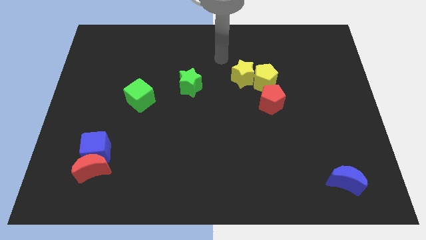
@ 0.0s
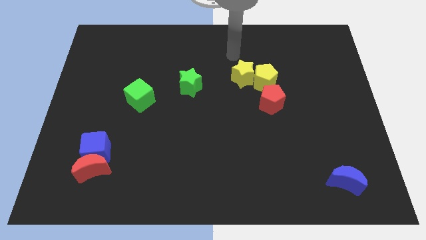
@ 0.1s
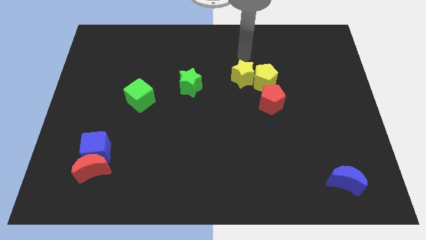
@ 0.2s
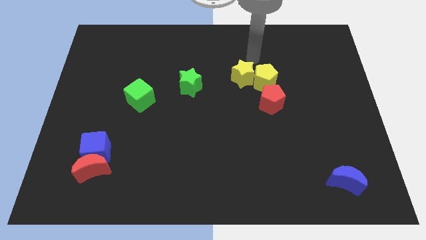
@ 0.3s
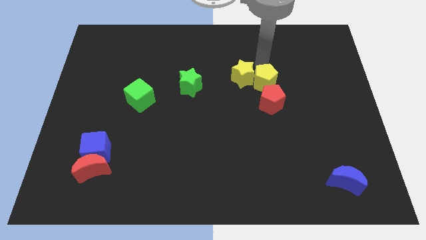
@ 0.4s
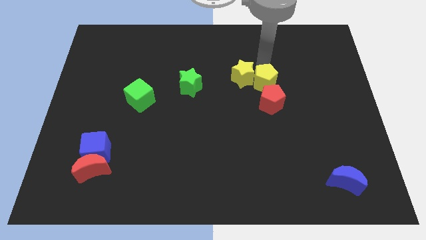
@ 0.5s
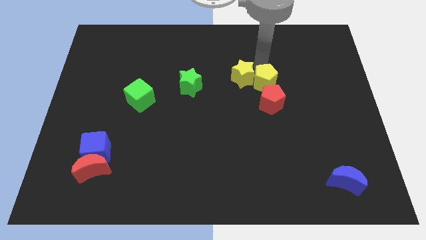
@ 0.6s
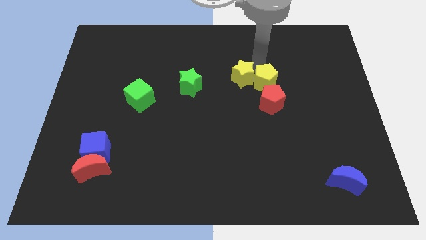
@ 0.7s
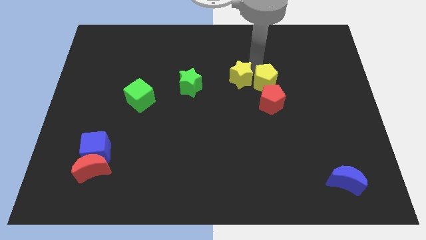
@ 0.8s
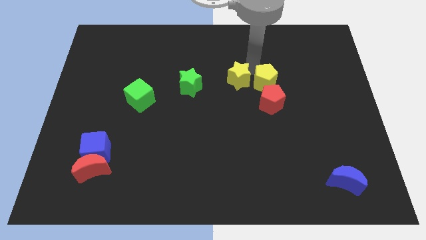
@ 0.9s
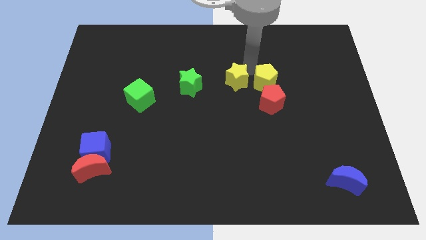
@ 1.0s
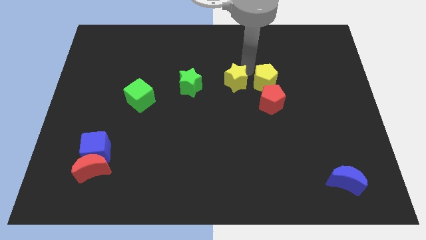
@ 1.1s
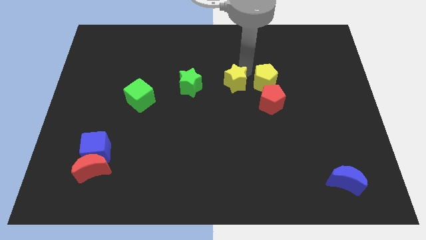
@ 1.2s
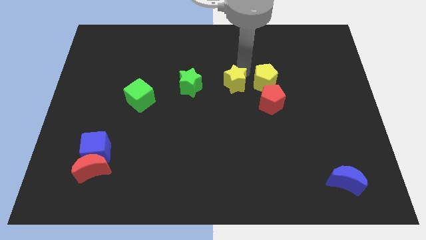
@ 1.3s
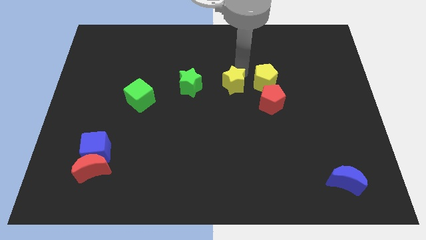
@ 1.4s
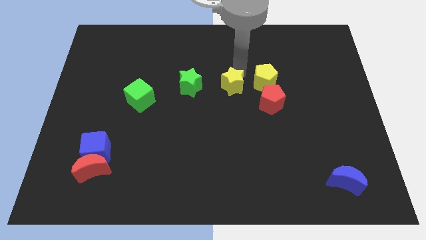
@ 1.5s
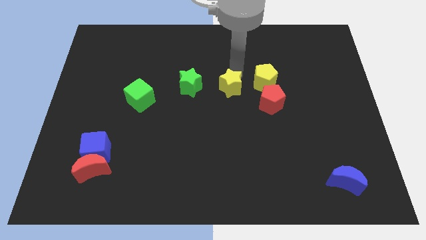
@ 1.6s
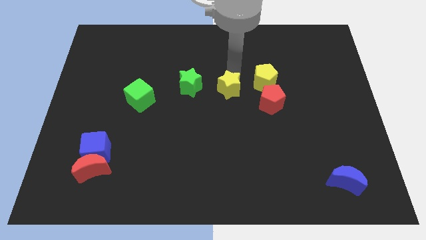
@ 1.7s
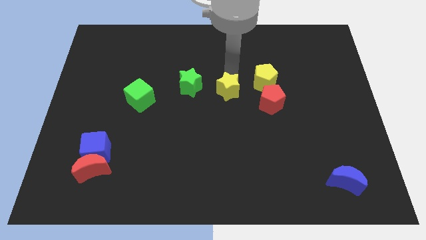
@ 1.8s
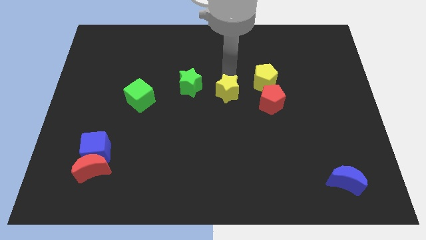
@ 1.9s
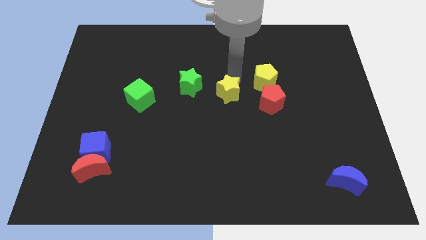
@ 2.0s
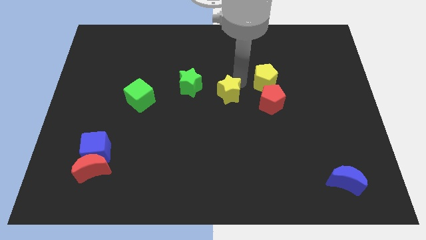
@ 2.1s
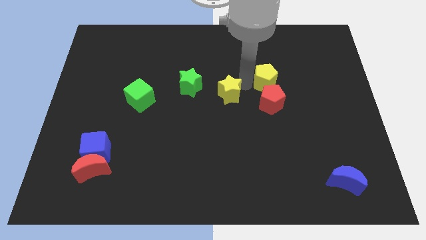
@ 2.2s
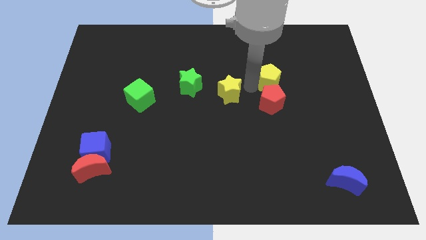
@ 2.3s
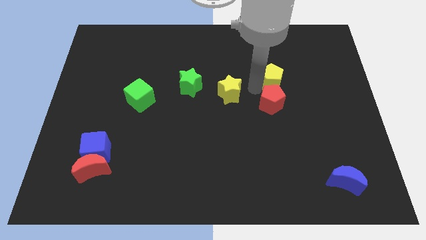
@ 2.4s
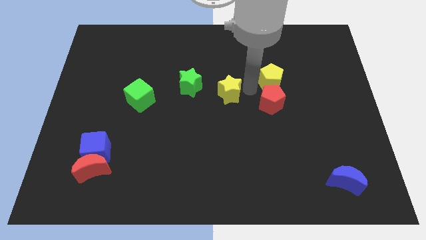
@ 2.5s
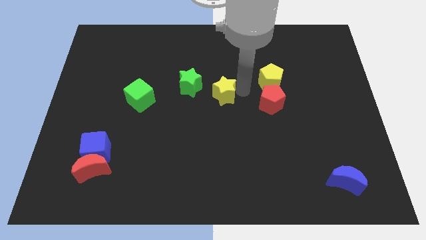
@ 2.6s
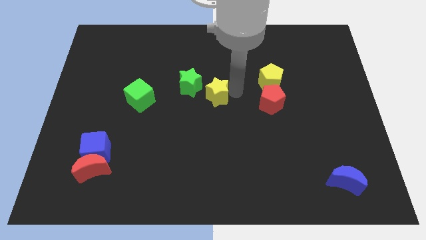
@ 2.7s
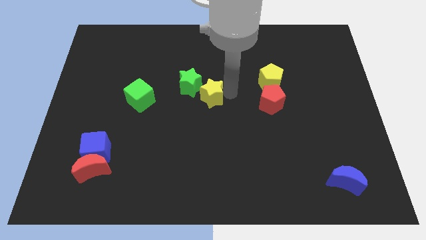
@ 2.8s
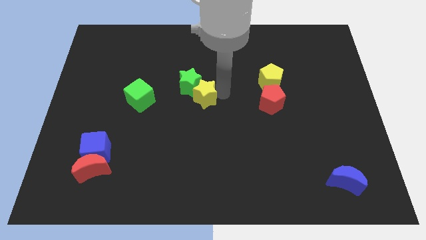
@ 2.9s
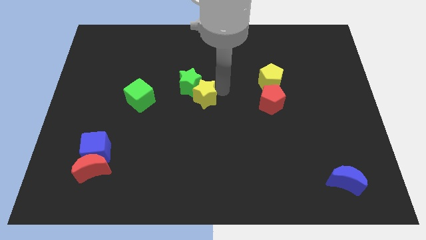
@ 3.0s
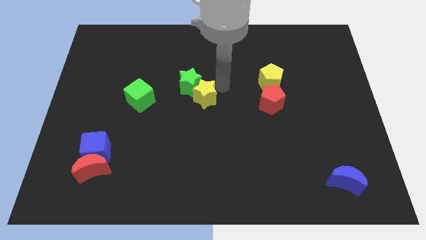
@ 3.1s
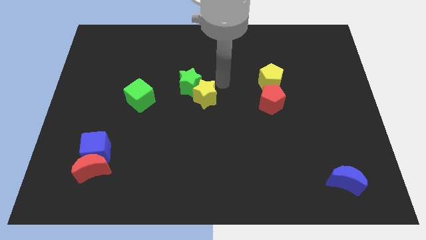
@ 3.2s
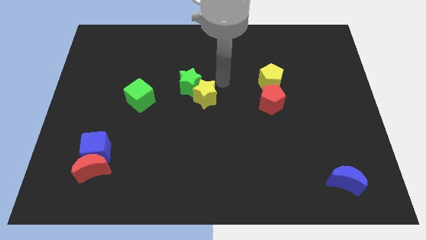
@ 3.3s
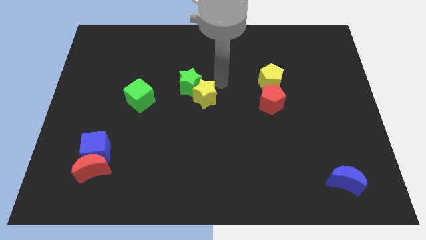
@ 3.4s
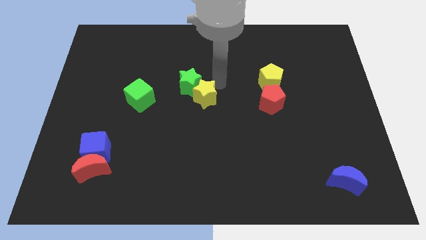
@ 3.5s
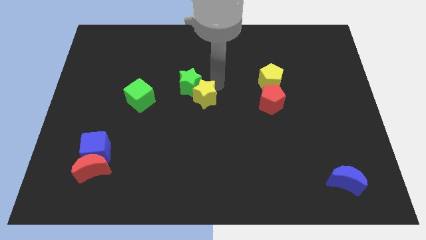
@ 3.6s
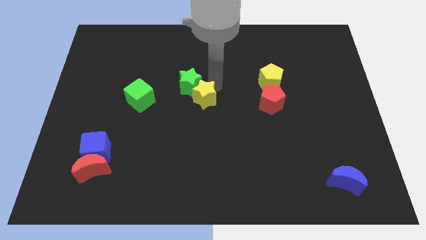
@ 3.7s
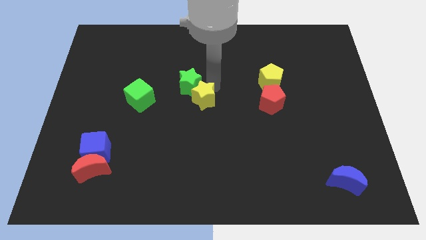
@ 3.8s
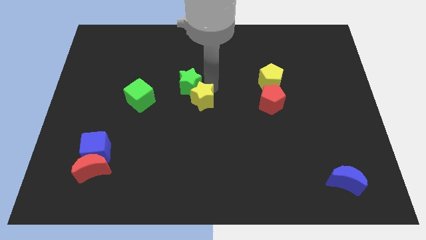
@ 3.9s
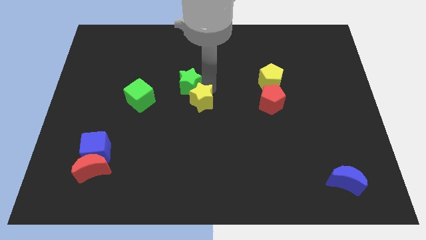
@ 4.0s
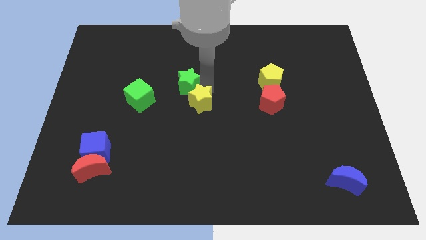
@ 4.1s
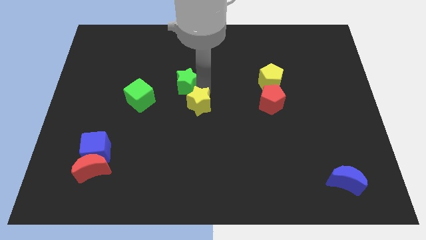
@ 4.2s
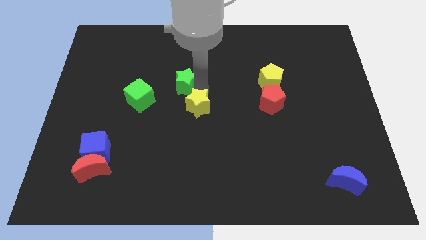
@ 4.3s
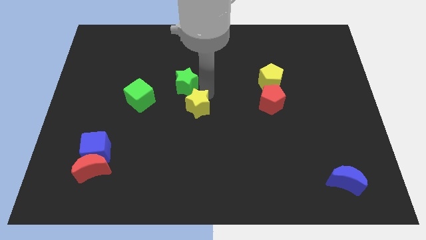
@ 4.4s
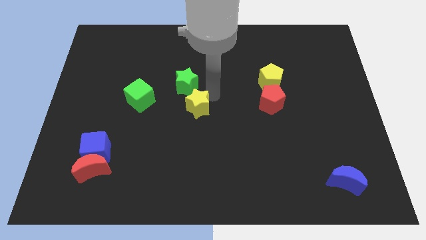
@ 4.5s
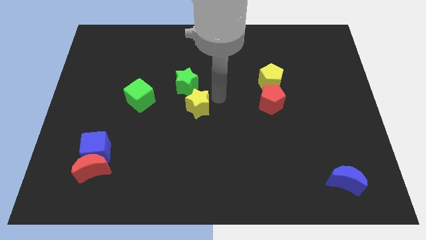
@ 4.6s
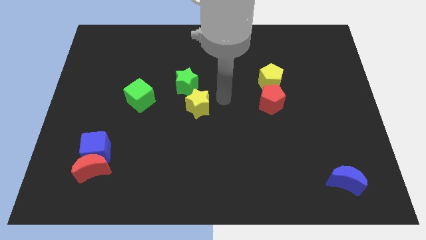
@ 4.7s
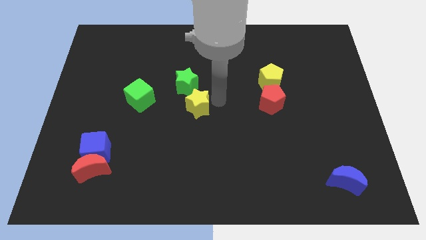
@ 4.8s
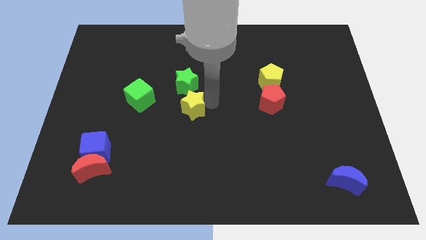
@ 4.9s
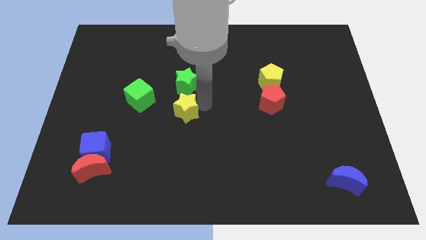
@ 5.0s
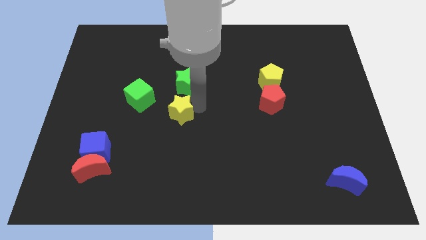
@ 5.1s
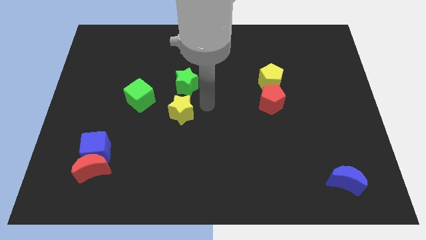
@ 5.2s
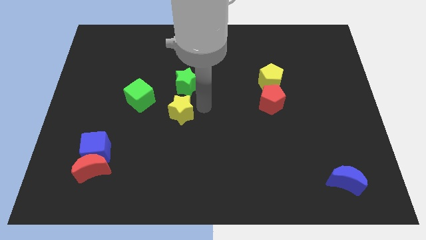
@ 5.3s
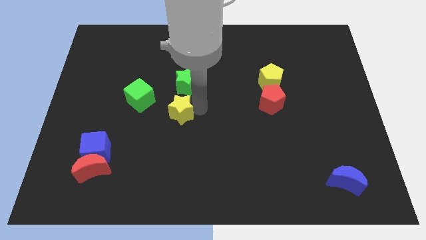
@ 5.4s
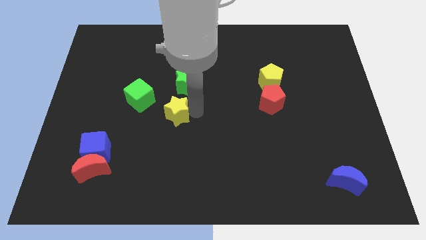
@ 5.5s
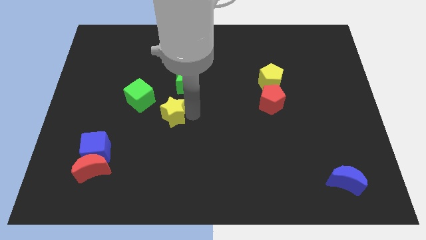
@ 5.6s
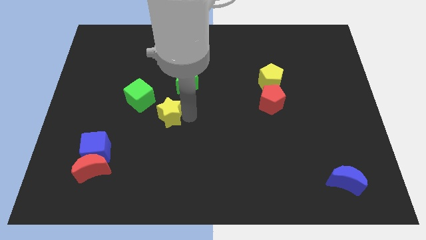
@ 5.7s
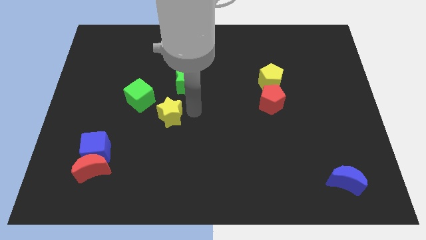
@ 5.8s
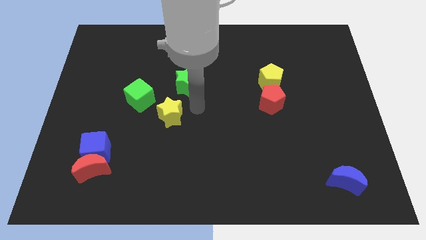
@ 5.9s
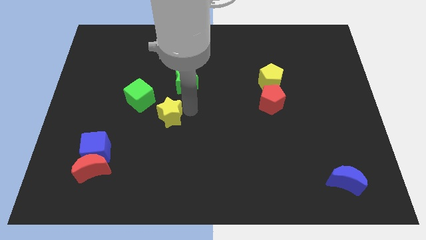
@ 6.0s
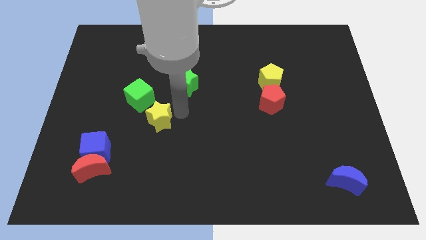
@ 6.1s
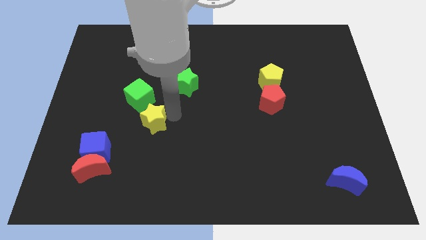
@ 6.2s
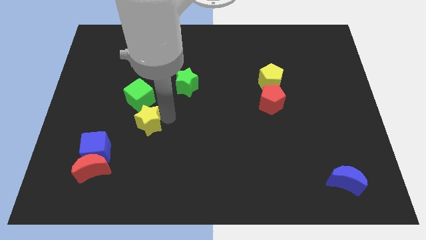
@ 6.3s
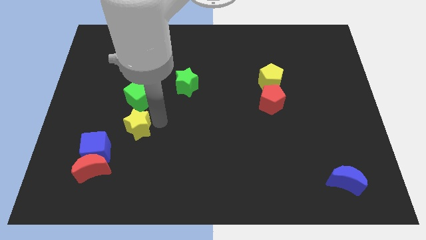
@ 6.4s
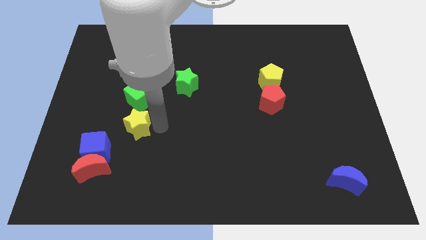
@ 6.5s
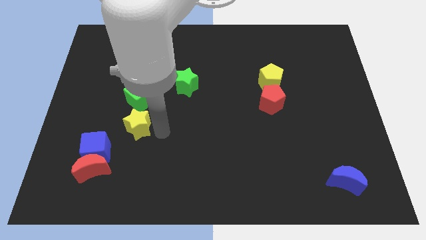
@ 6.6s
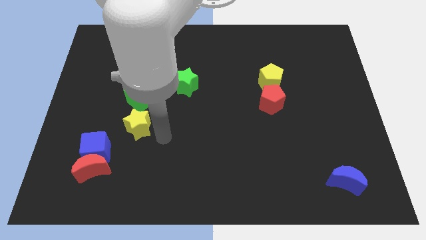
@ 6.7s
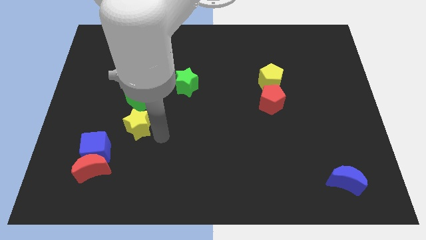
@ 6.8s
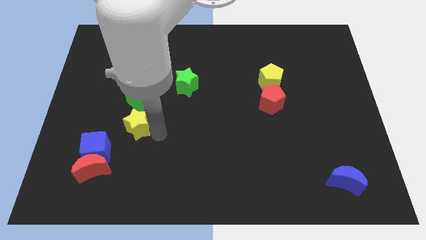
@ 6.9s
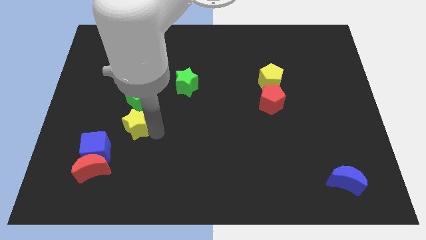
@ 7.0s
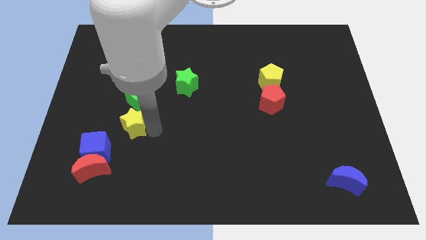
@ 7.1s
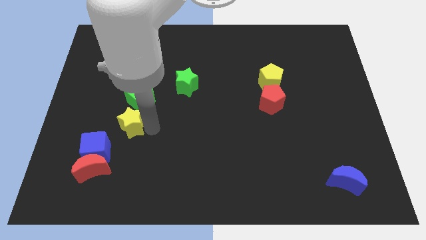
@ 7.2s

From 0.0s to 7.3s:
push the yellow star diagonally down and to the left of the green cube

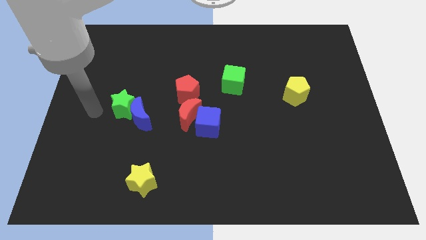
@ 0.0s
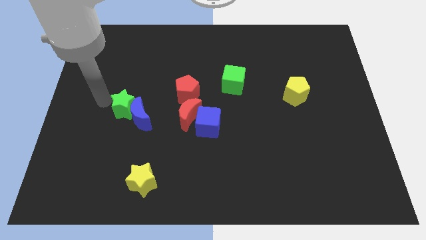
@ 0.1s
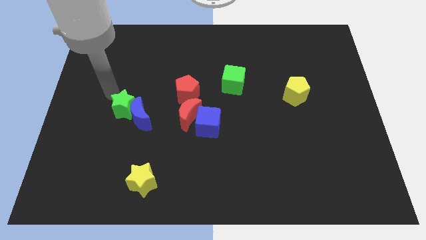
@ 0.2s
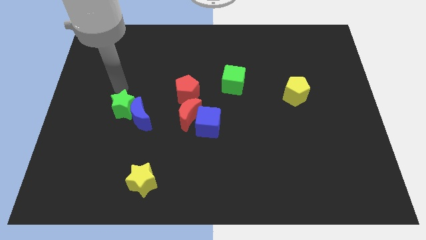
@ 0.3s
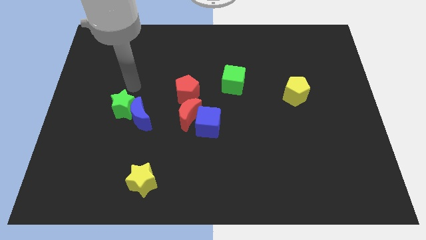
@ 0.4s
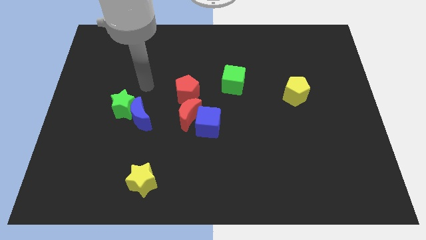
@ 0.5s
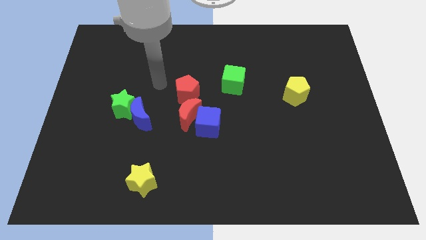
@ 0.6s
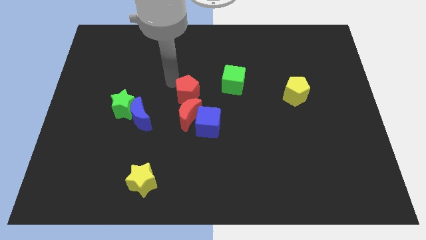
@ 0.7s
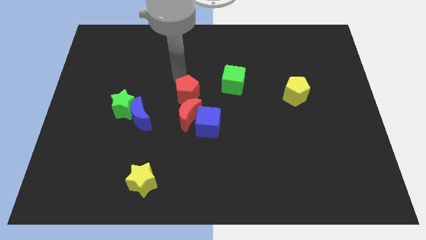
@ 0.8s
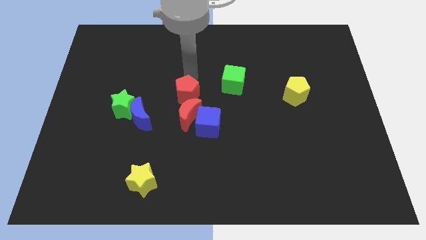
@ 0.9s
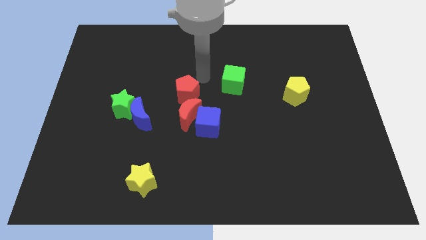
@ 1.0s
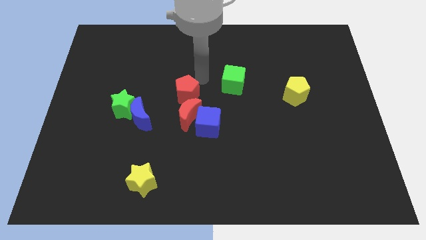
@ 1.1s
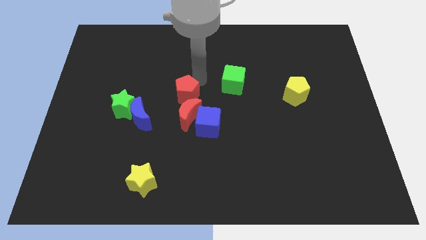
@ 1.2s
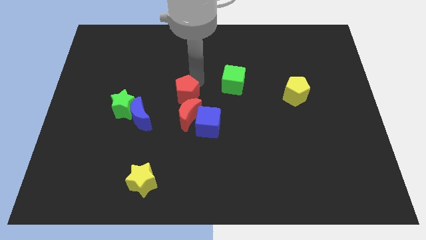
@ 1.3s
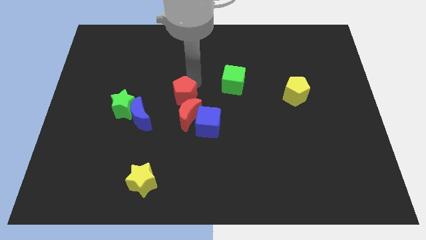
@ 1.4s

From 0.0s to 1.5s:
push the red pentagon to the right of the green star
